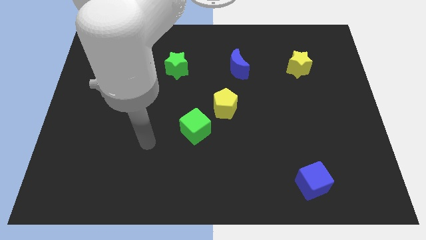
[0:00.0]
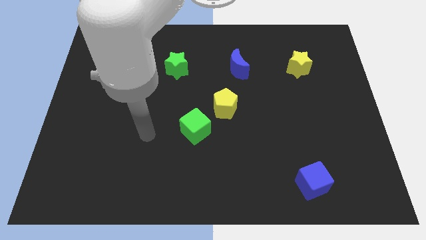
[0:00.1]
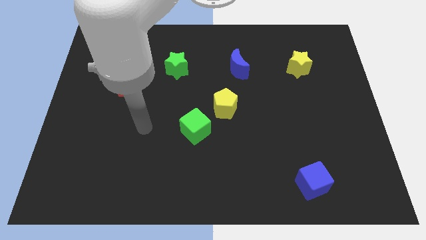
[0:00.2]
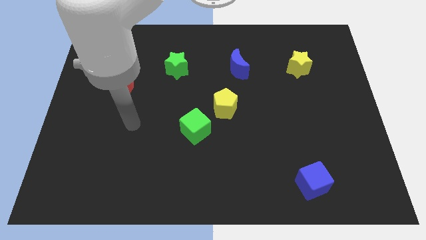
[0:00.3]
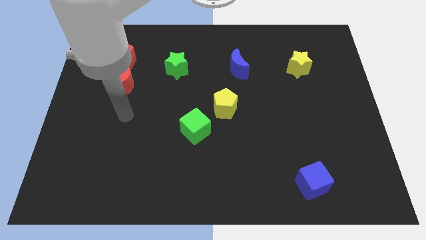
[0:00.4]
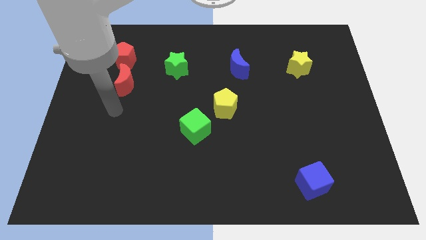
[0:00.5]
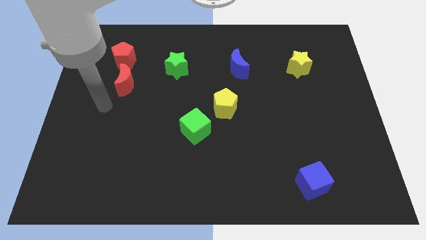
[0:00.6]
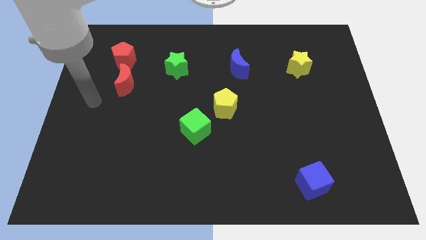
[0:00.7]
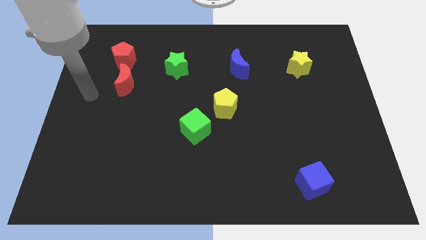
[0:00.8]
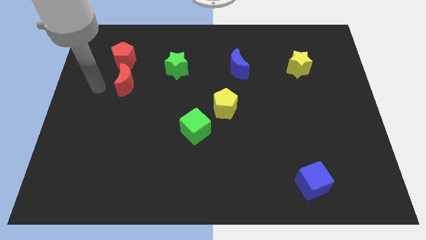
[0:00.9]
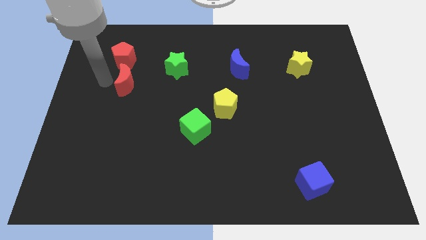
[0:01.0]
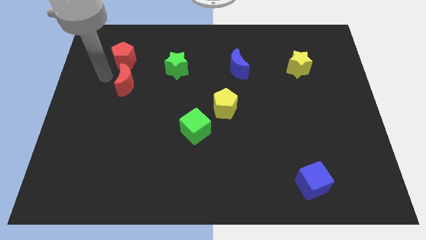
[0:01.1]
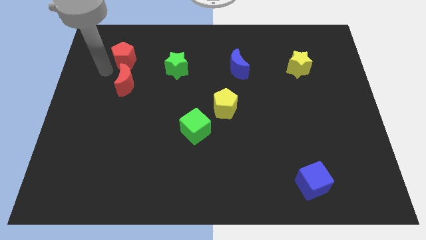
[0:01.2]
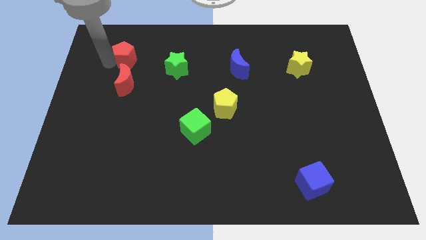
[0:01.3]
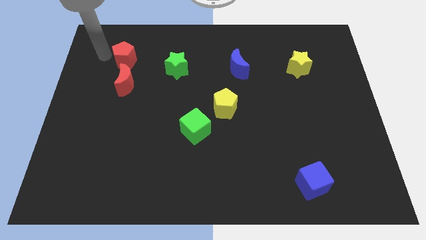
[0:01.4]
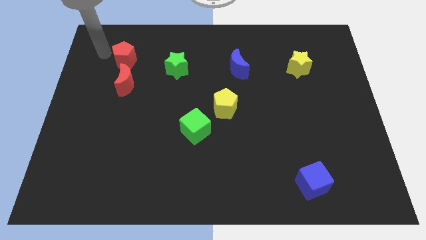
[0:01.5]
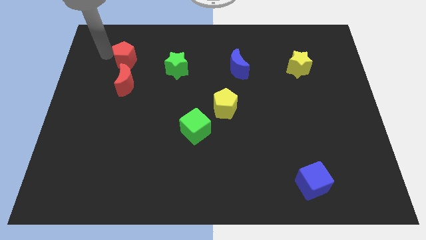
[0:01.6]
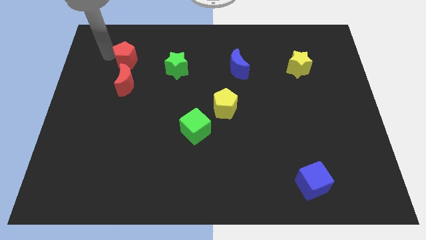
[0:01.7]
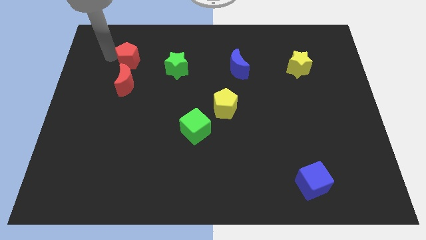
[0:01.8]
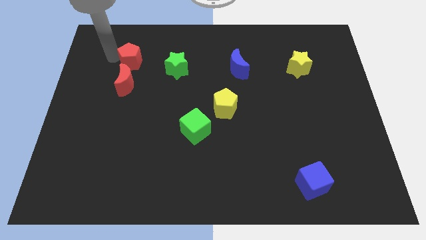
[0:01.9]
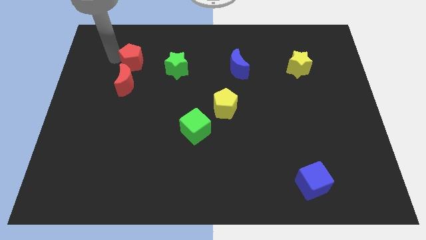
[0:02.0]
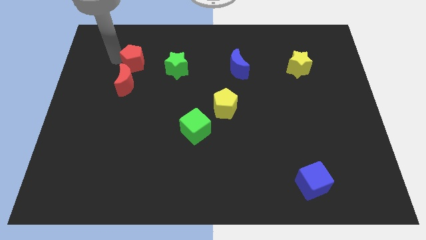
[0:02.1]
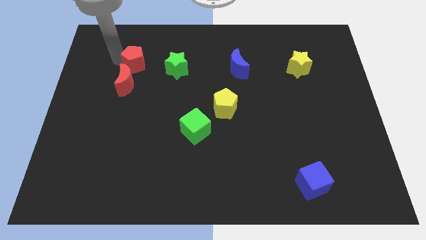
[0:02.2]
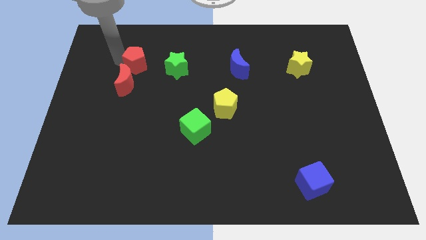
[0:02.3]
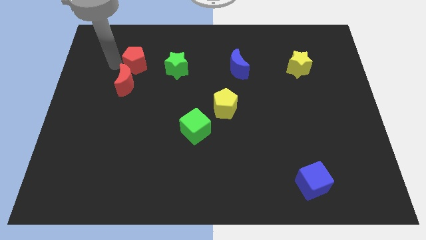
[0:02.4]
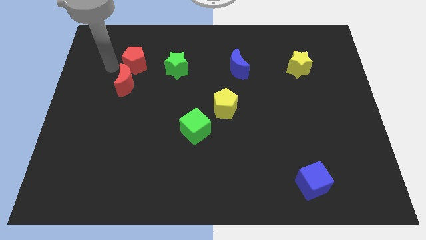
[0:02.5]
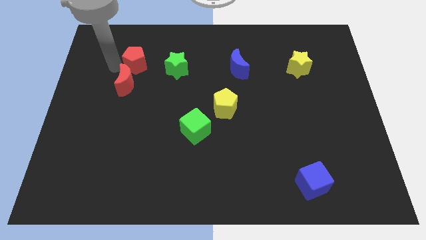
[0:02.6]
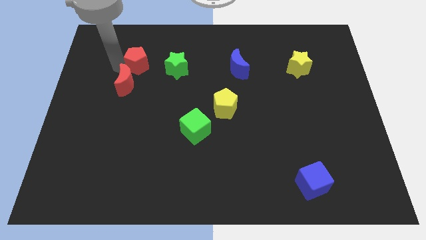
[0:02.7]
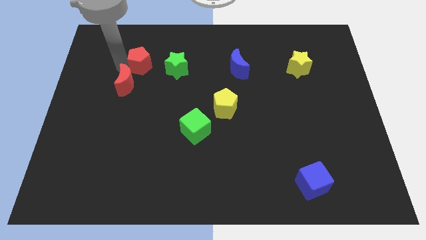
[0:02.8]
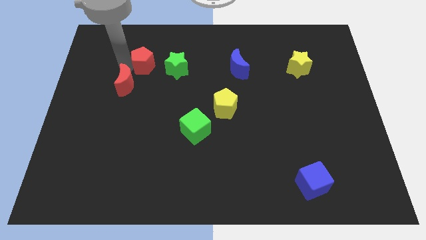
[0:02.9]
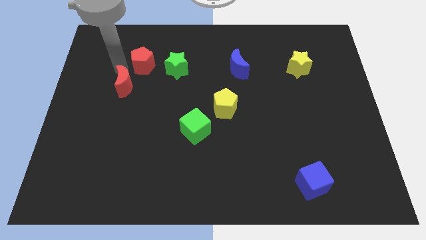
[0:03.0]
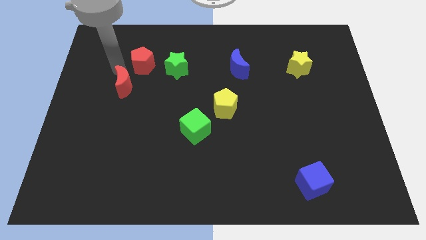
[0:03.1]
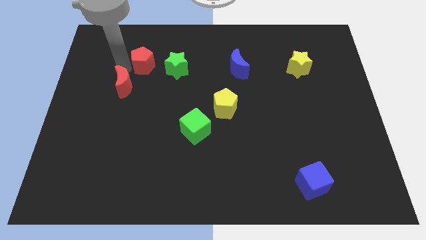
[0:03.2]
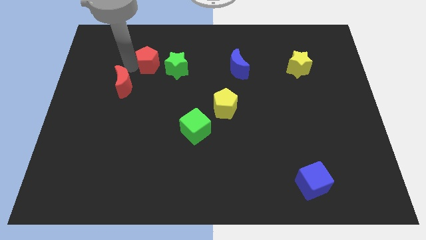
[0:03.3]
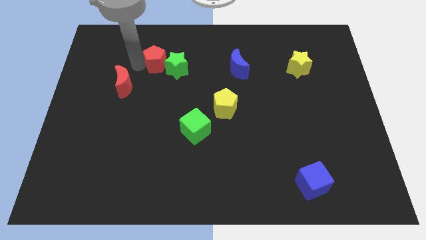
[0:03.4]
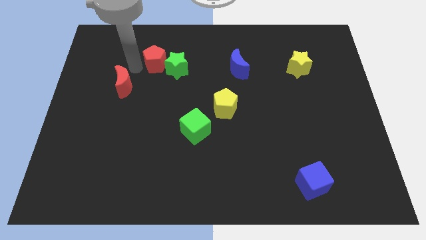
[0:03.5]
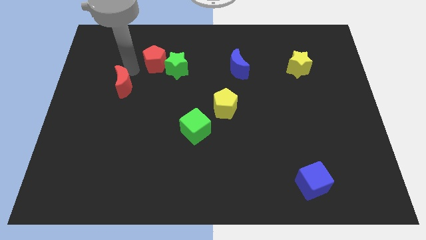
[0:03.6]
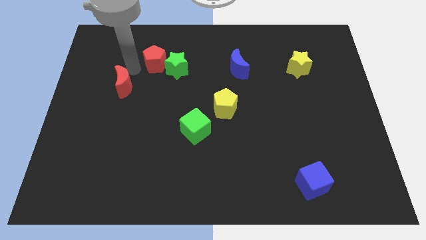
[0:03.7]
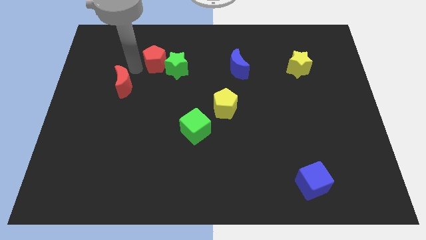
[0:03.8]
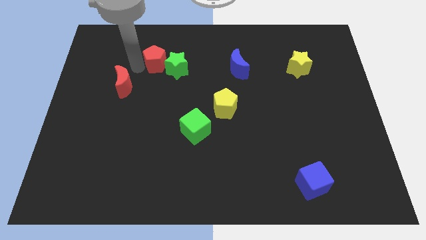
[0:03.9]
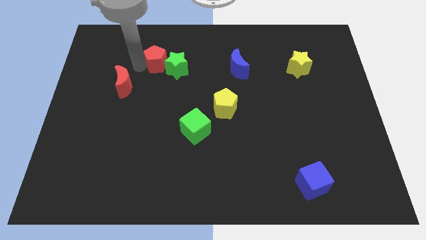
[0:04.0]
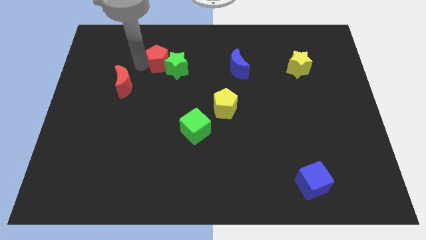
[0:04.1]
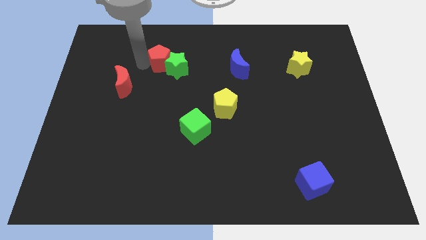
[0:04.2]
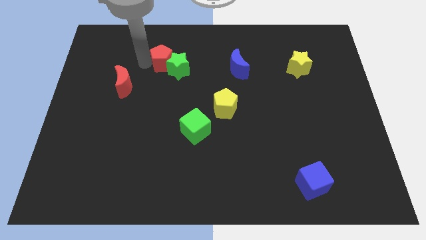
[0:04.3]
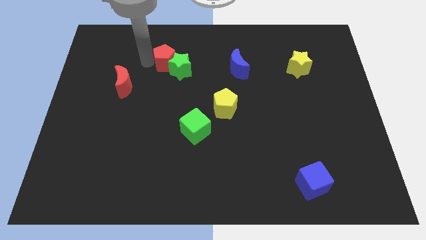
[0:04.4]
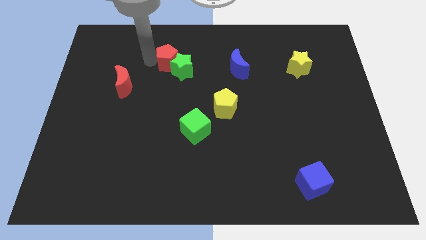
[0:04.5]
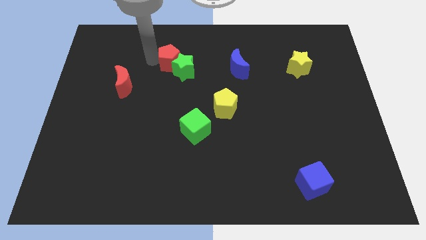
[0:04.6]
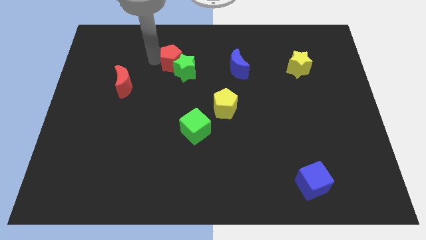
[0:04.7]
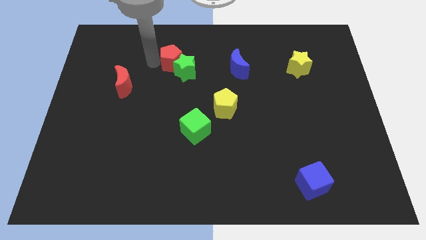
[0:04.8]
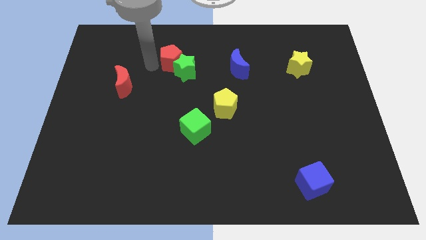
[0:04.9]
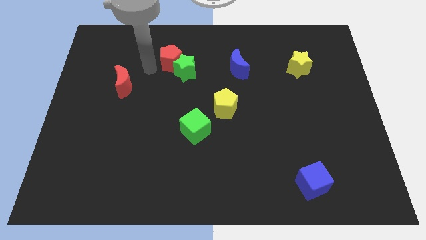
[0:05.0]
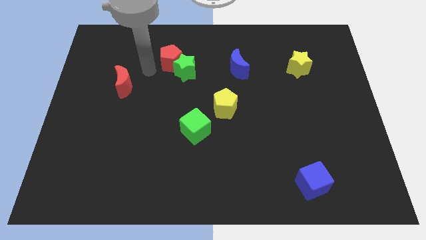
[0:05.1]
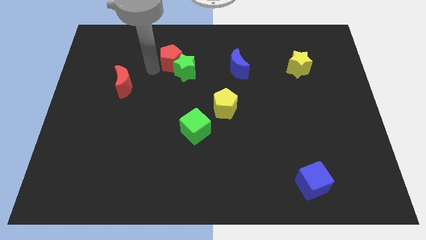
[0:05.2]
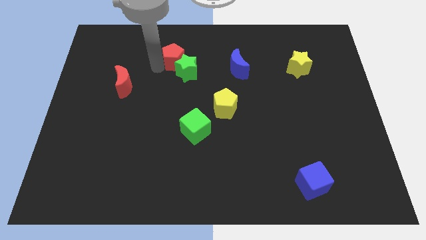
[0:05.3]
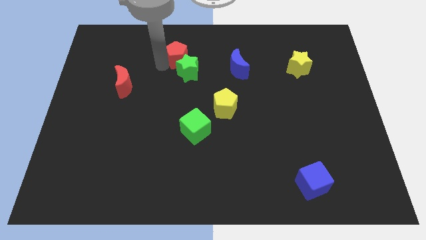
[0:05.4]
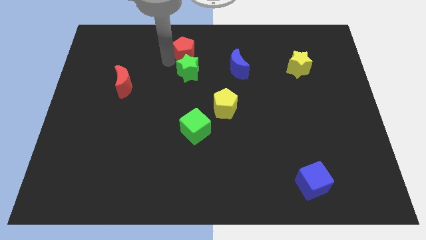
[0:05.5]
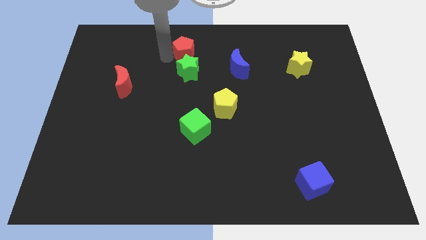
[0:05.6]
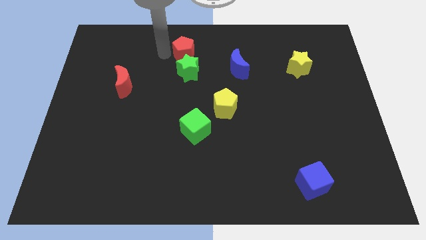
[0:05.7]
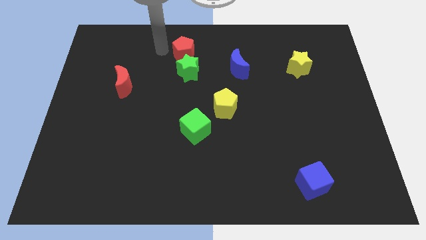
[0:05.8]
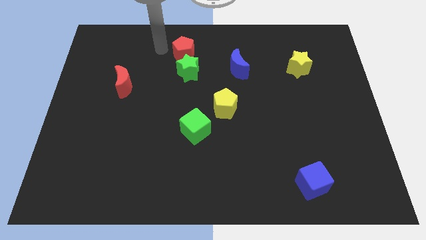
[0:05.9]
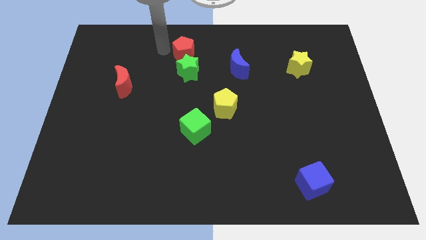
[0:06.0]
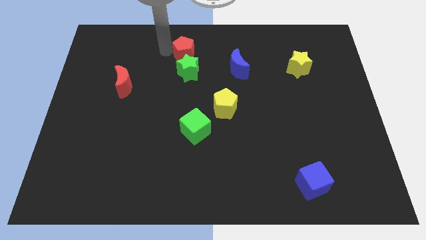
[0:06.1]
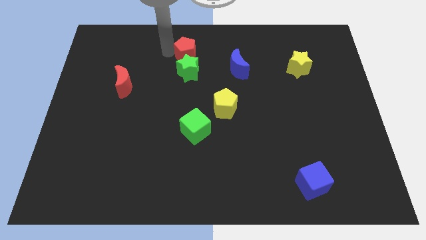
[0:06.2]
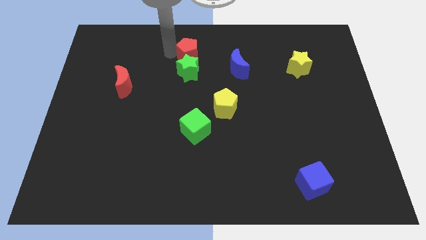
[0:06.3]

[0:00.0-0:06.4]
put the red pentagon to the top right of the green star
